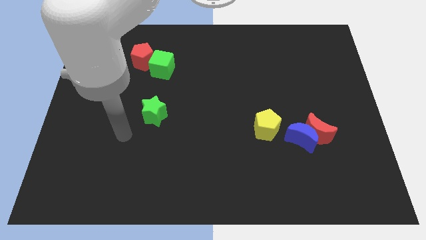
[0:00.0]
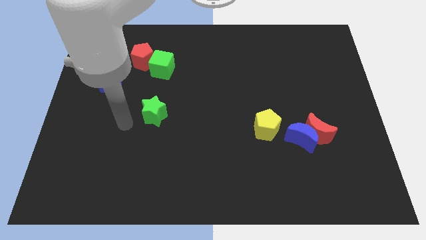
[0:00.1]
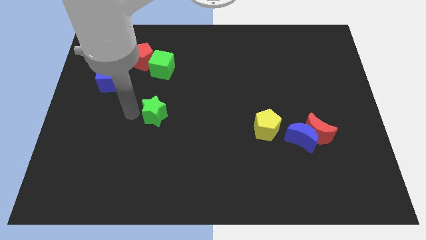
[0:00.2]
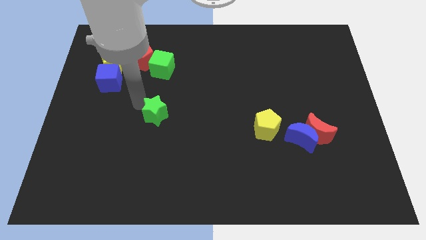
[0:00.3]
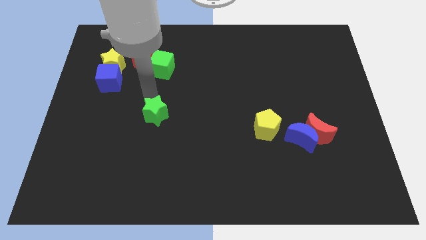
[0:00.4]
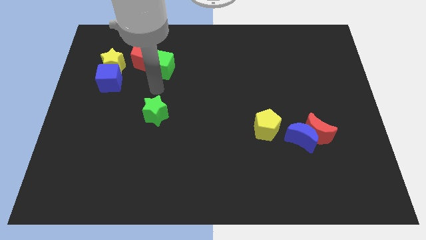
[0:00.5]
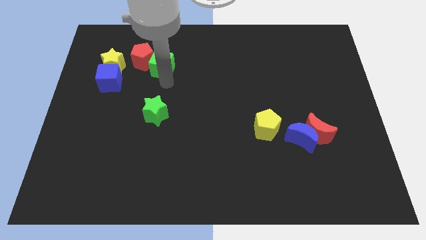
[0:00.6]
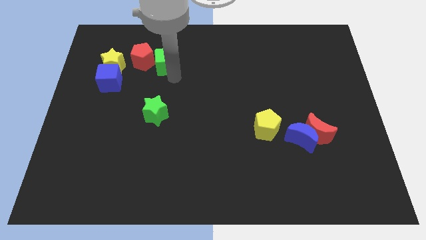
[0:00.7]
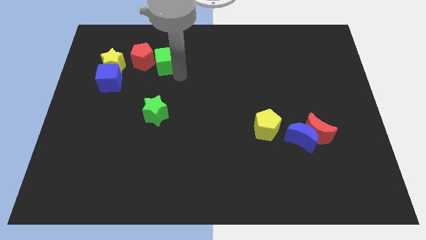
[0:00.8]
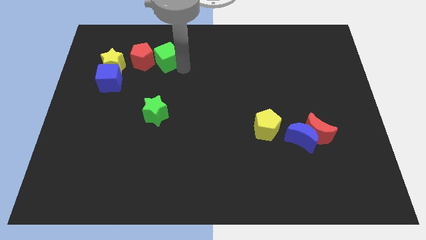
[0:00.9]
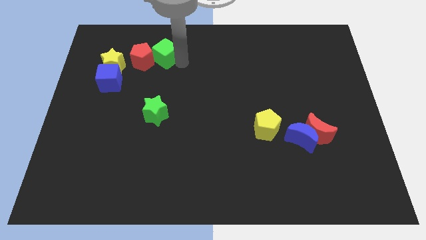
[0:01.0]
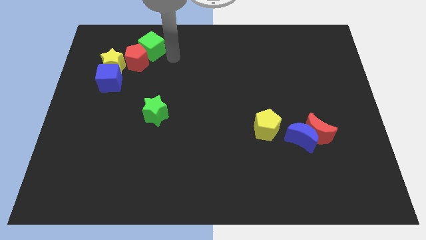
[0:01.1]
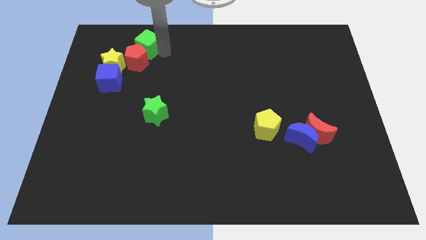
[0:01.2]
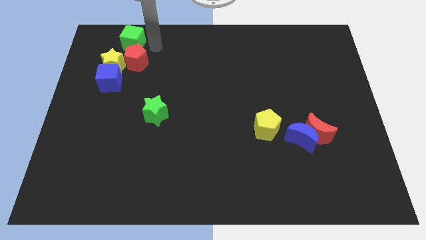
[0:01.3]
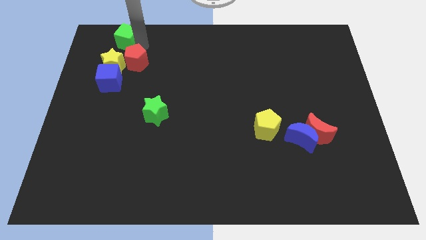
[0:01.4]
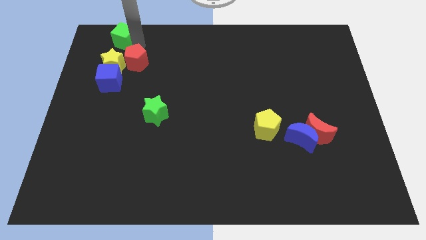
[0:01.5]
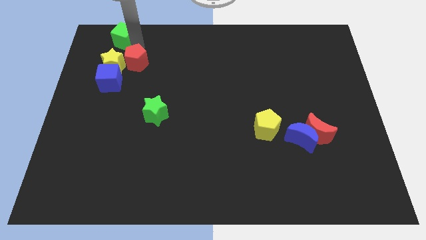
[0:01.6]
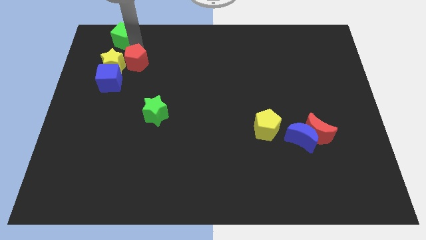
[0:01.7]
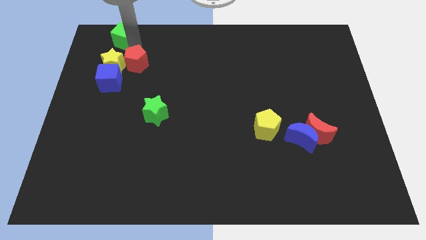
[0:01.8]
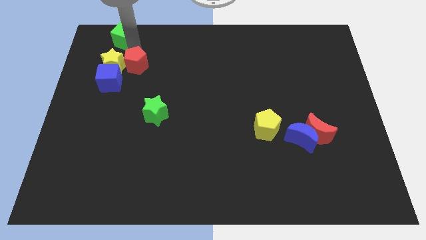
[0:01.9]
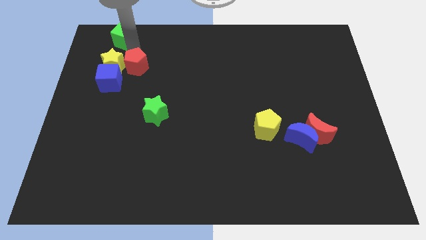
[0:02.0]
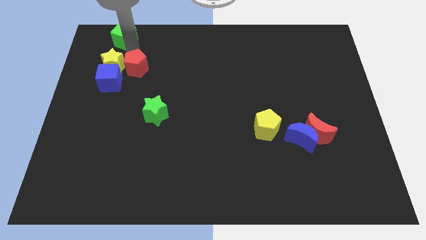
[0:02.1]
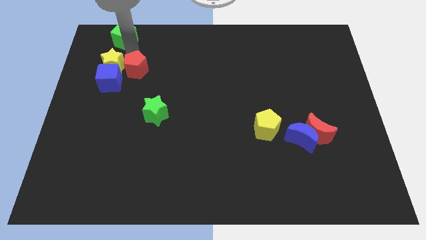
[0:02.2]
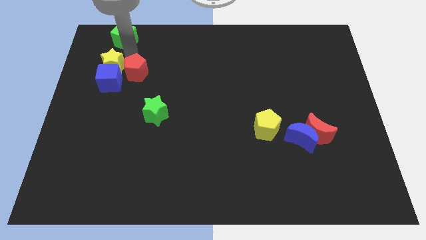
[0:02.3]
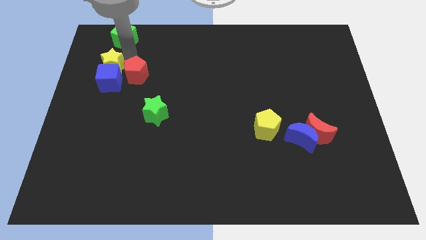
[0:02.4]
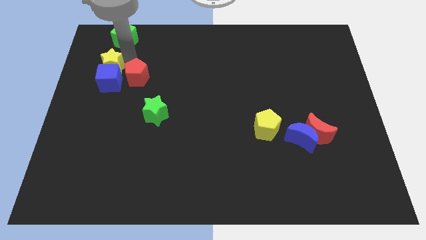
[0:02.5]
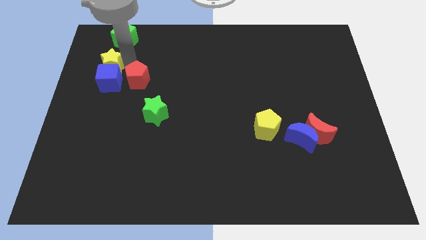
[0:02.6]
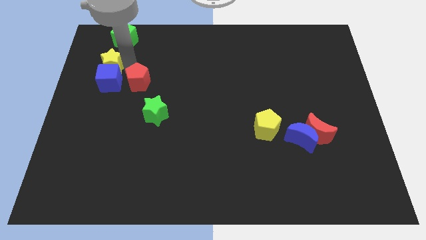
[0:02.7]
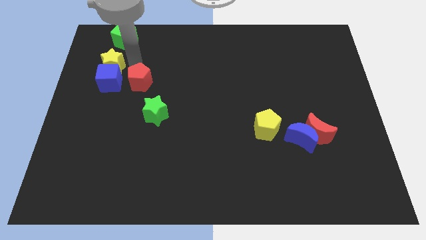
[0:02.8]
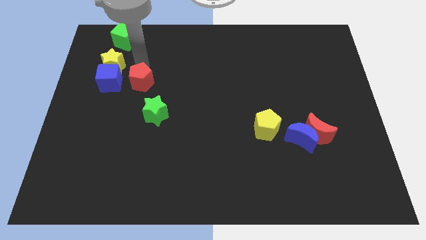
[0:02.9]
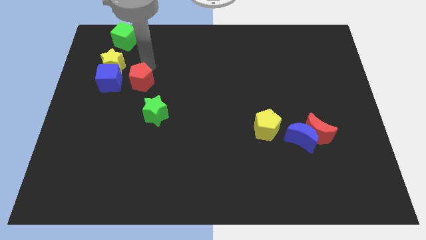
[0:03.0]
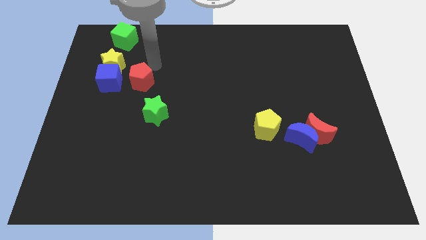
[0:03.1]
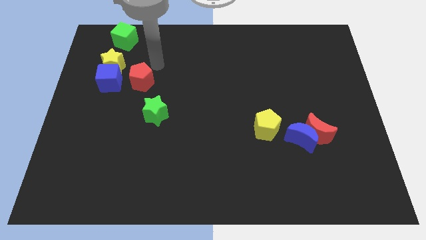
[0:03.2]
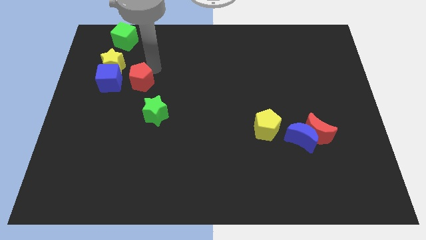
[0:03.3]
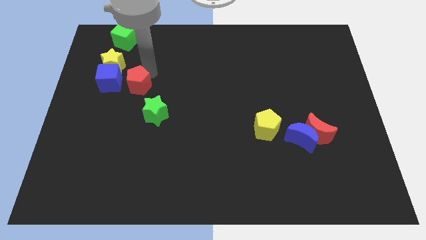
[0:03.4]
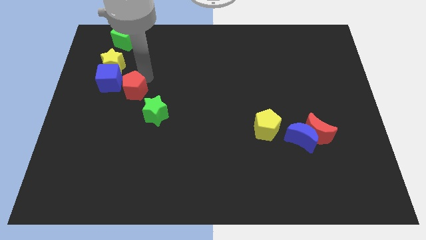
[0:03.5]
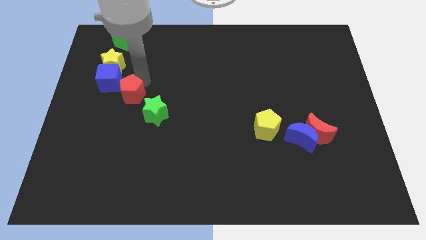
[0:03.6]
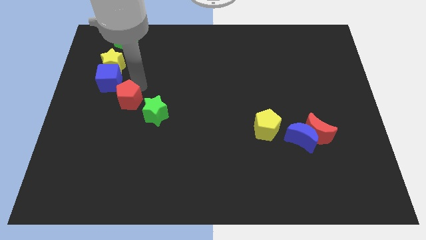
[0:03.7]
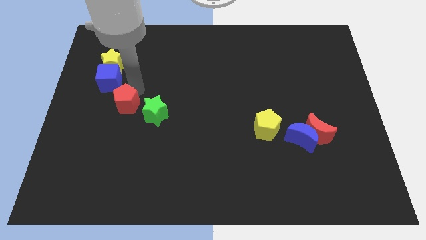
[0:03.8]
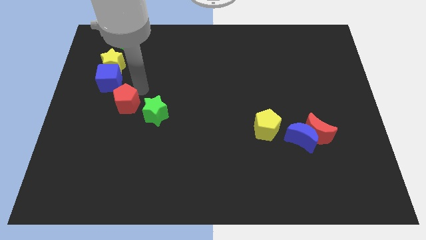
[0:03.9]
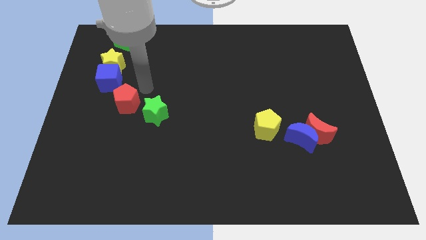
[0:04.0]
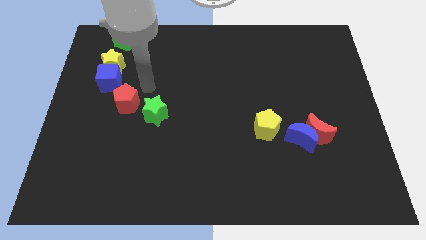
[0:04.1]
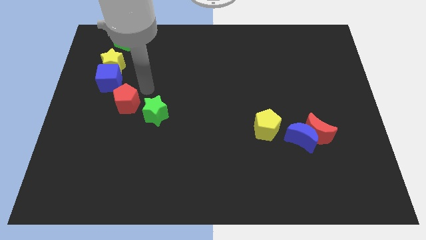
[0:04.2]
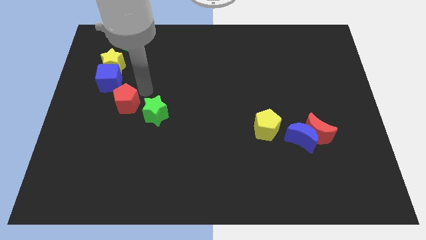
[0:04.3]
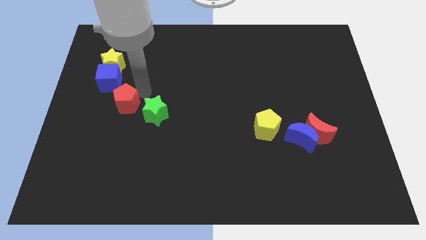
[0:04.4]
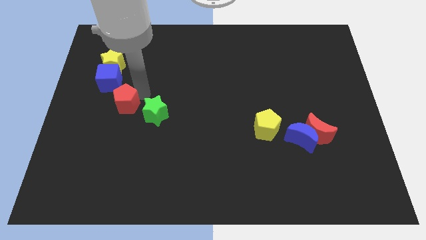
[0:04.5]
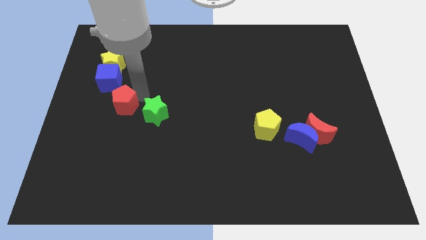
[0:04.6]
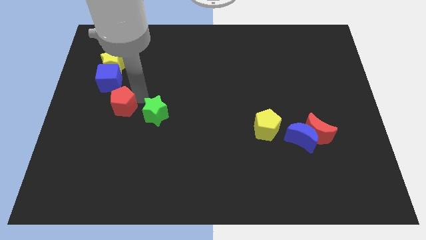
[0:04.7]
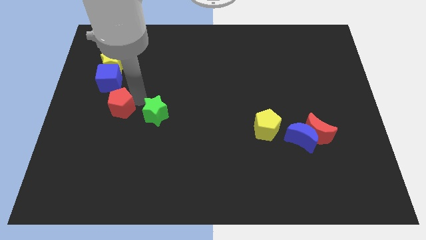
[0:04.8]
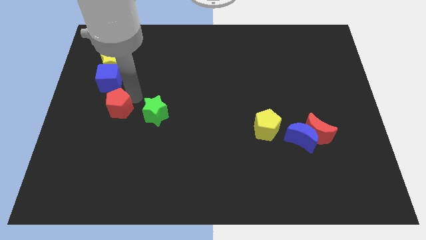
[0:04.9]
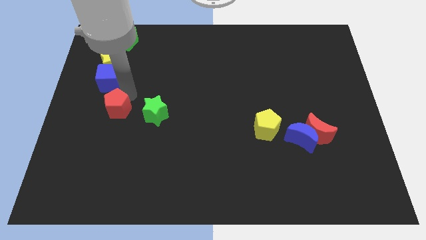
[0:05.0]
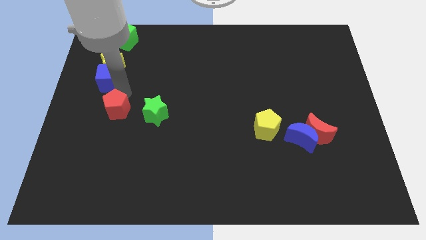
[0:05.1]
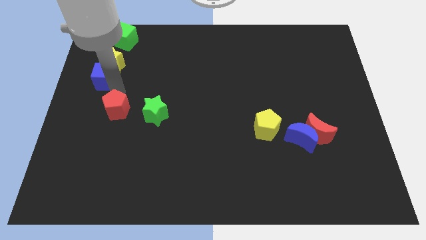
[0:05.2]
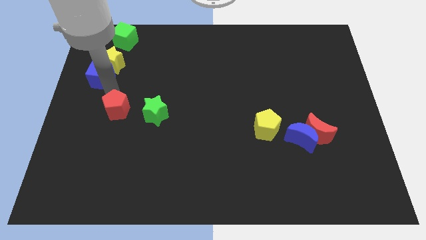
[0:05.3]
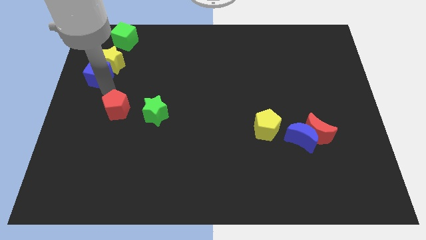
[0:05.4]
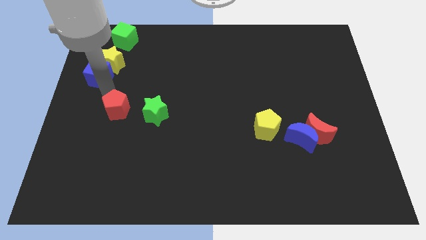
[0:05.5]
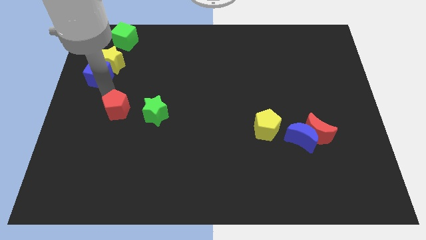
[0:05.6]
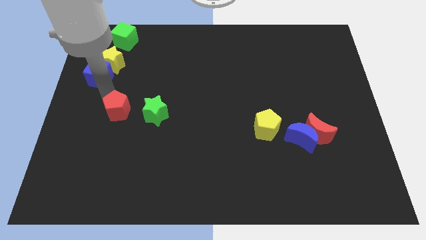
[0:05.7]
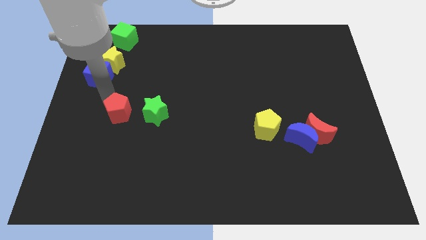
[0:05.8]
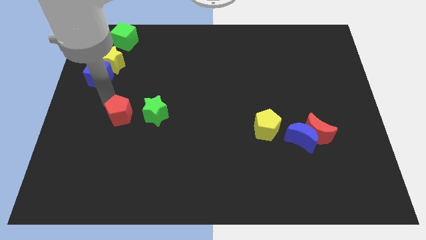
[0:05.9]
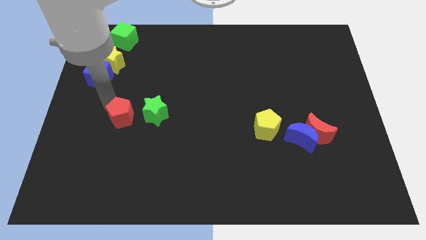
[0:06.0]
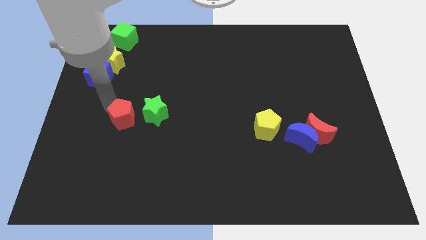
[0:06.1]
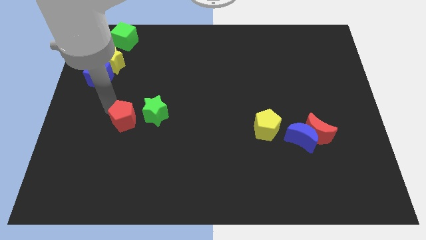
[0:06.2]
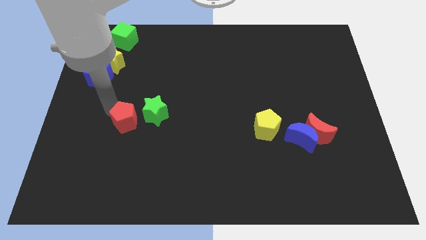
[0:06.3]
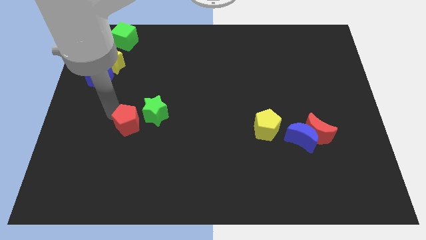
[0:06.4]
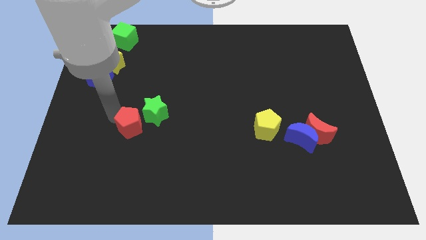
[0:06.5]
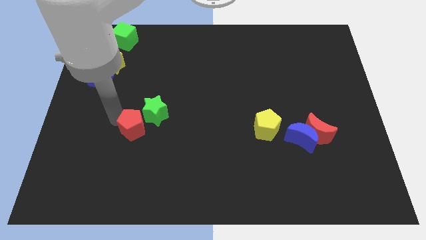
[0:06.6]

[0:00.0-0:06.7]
put the red pentagon below the green star
